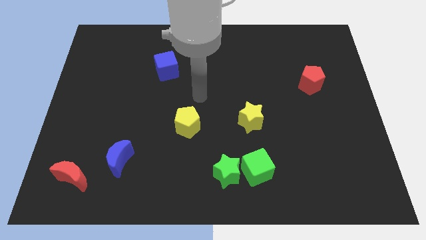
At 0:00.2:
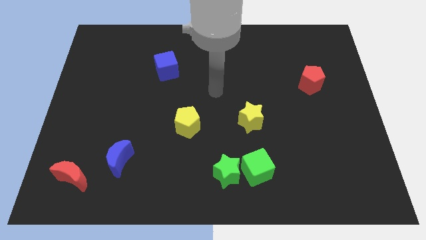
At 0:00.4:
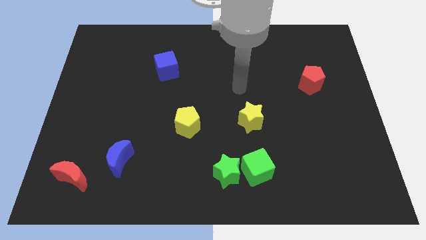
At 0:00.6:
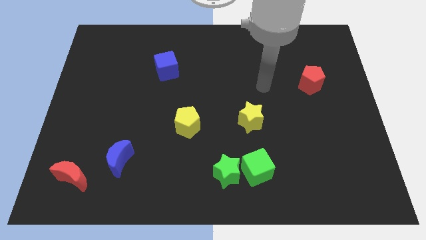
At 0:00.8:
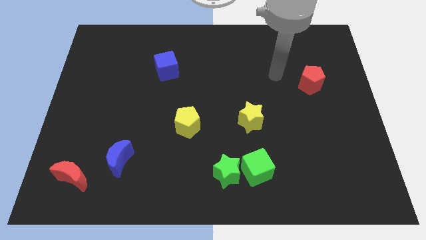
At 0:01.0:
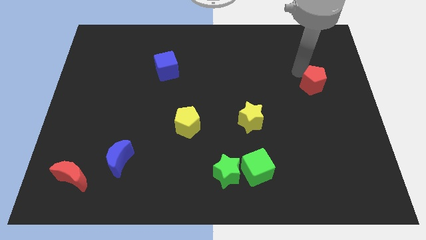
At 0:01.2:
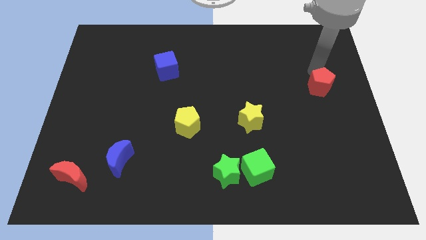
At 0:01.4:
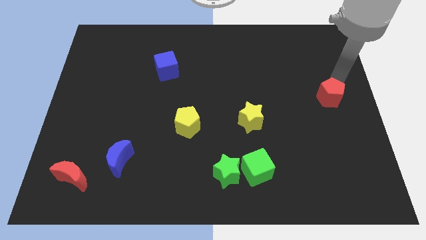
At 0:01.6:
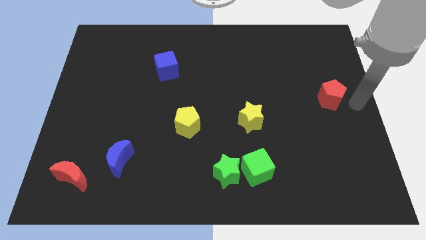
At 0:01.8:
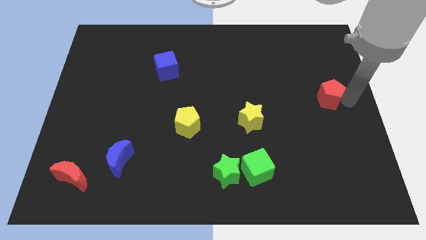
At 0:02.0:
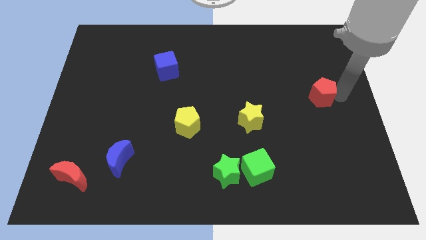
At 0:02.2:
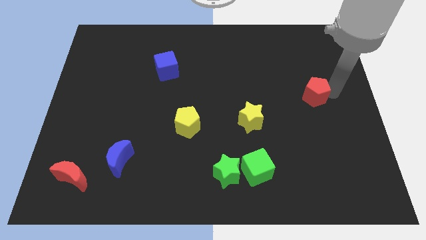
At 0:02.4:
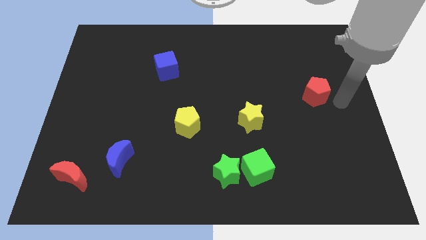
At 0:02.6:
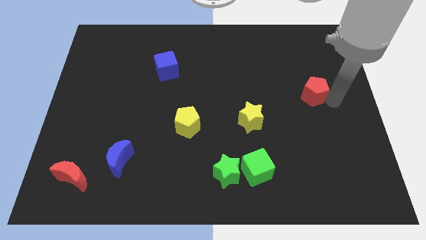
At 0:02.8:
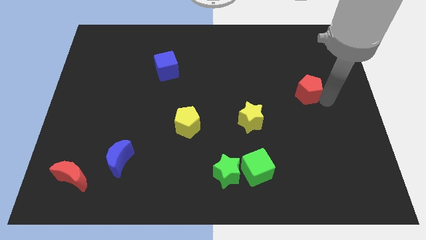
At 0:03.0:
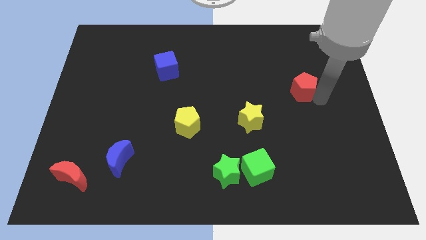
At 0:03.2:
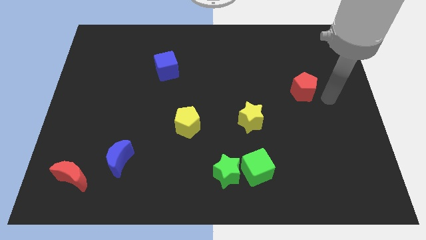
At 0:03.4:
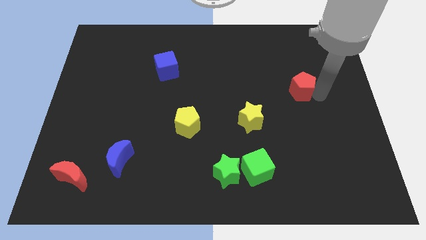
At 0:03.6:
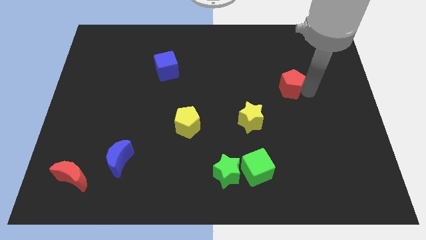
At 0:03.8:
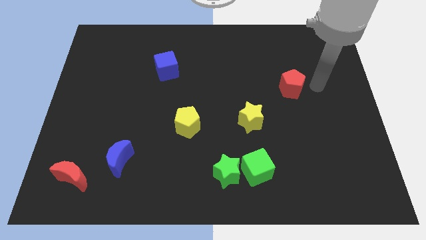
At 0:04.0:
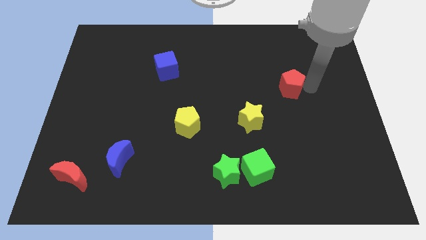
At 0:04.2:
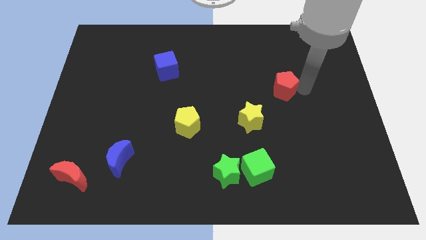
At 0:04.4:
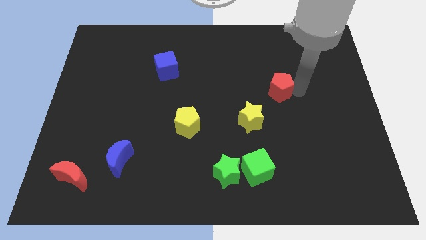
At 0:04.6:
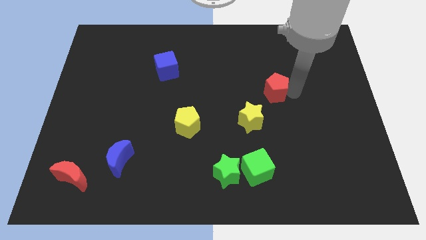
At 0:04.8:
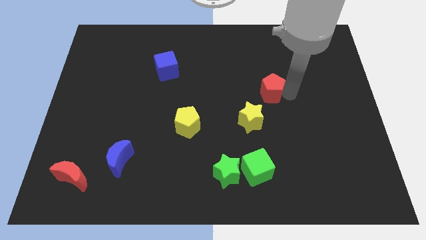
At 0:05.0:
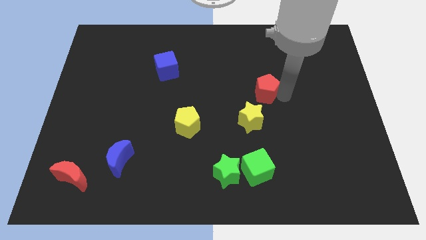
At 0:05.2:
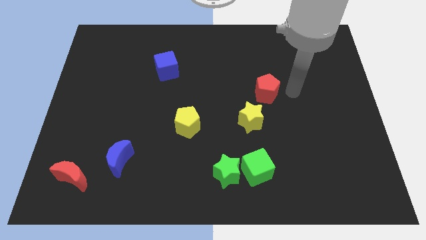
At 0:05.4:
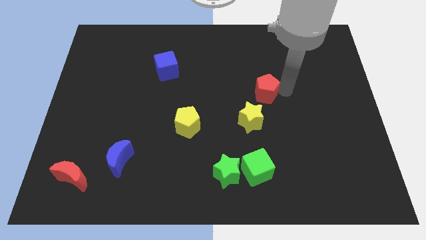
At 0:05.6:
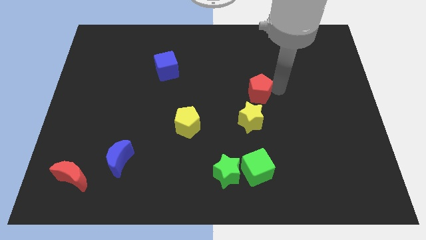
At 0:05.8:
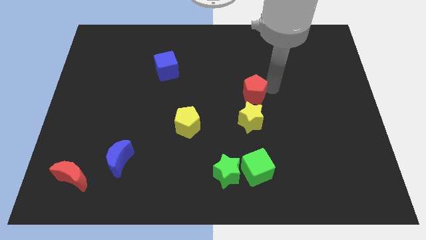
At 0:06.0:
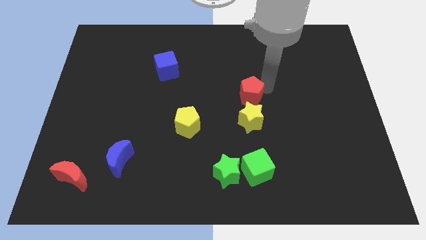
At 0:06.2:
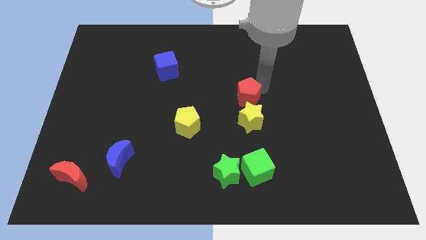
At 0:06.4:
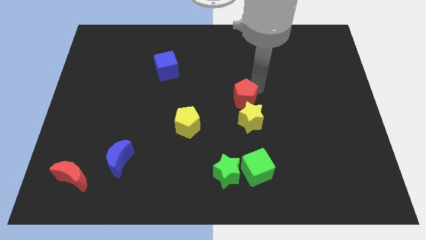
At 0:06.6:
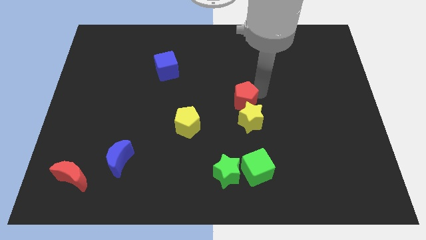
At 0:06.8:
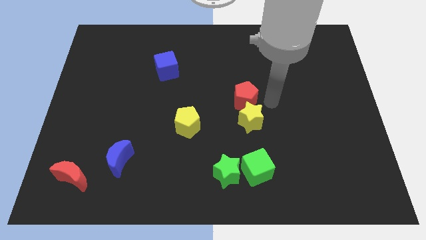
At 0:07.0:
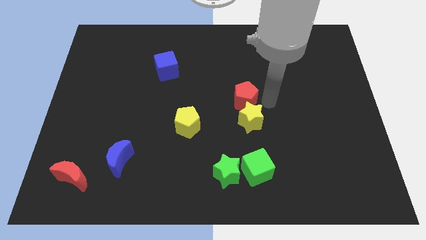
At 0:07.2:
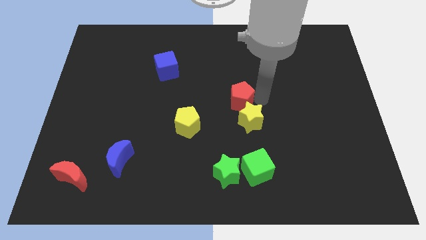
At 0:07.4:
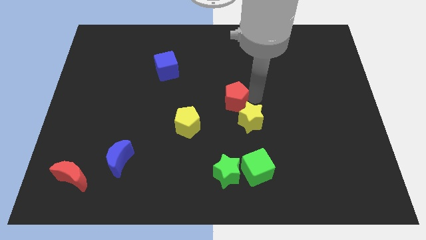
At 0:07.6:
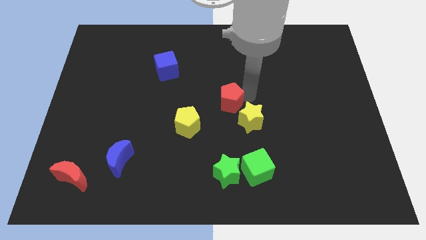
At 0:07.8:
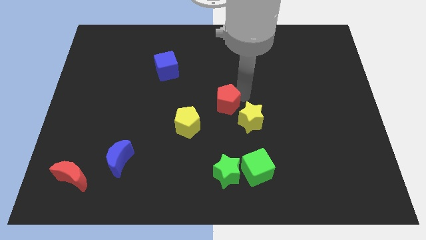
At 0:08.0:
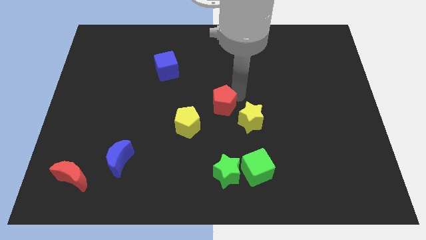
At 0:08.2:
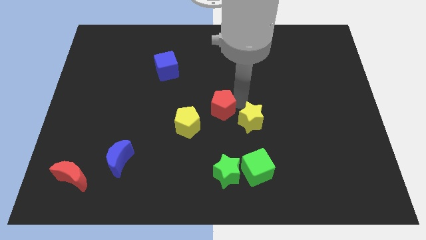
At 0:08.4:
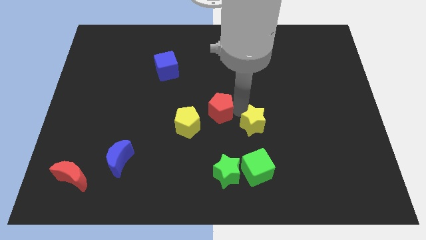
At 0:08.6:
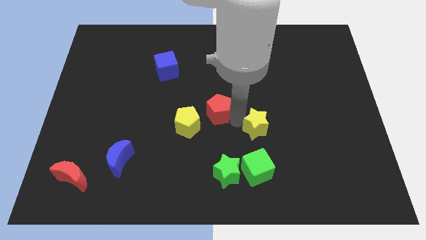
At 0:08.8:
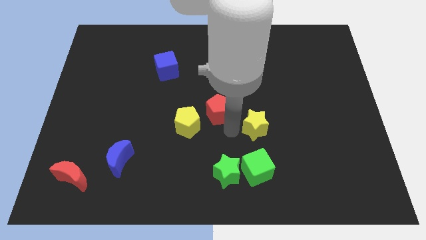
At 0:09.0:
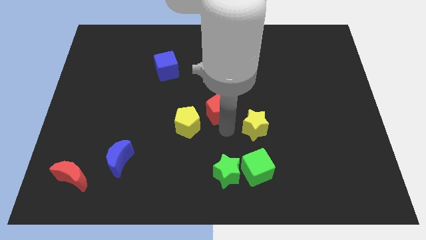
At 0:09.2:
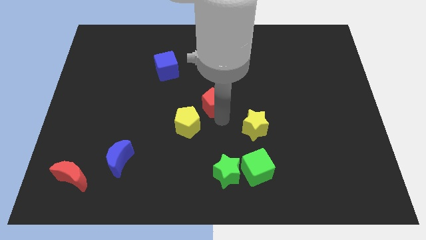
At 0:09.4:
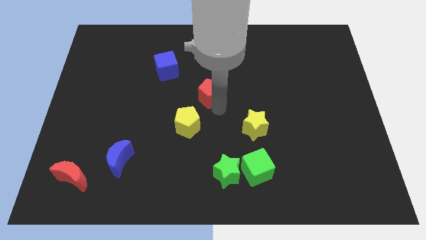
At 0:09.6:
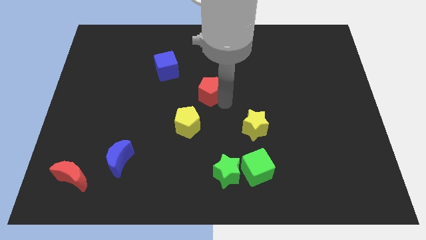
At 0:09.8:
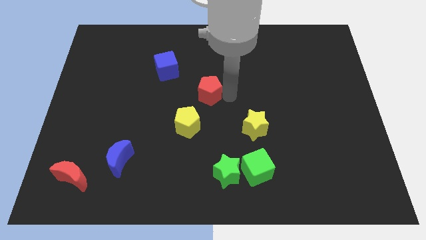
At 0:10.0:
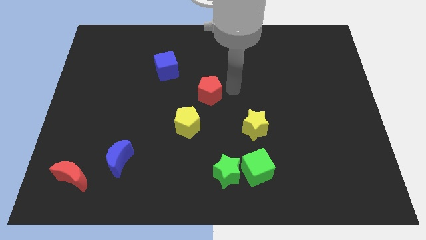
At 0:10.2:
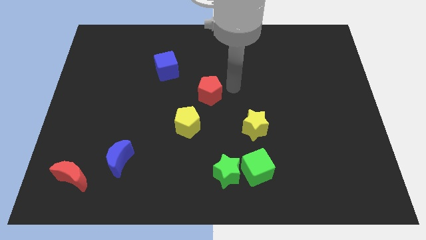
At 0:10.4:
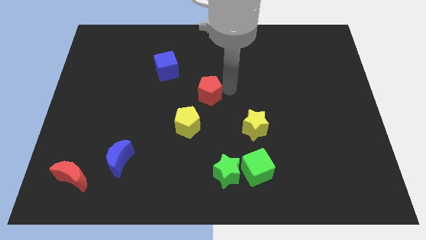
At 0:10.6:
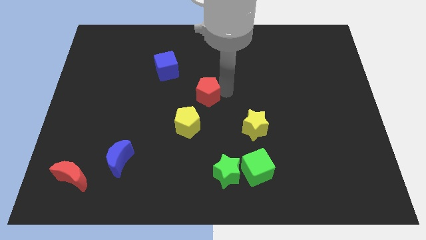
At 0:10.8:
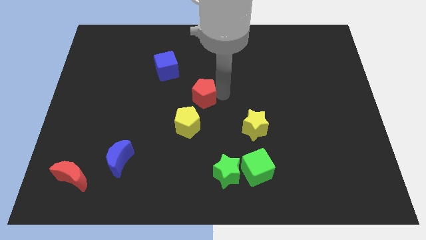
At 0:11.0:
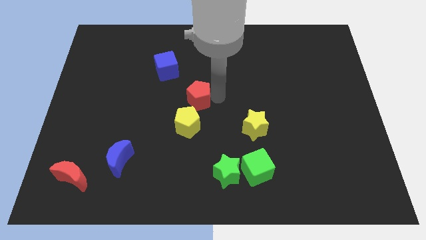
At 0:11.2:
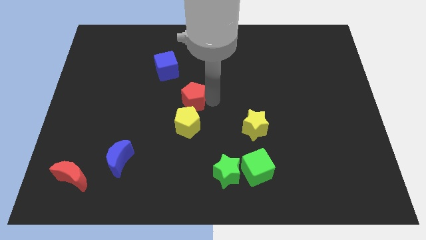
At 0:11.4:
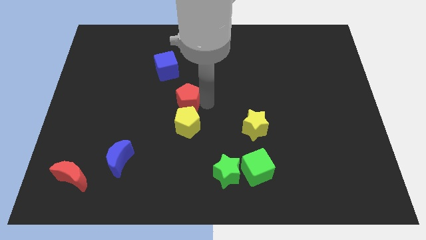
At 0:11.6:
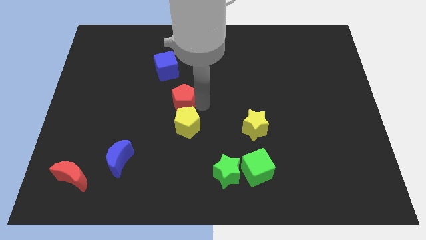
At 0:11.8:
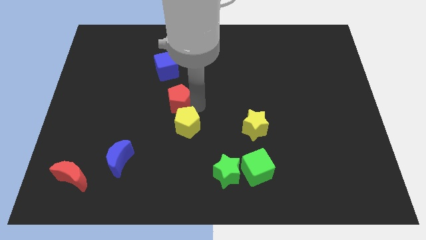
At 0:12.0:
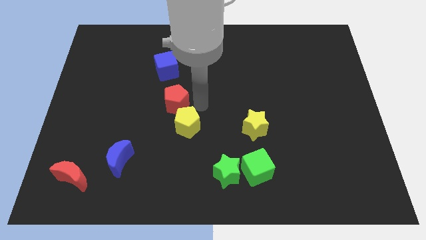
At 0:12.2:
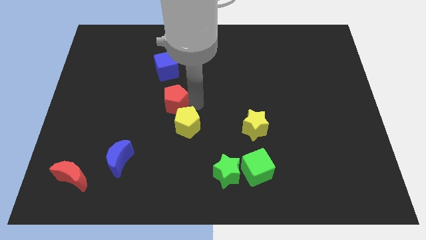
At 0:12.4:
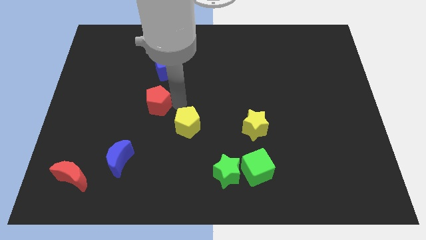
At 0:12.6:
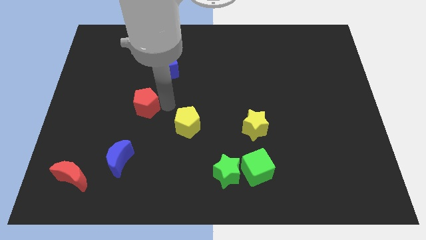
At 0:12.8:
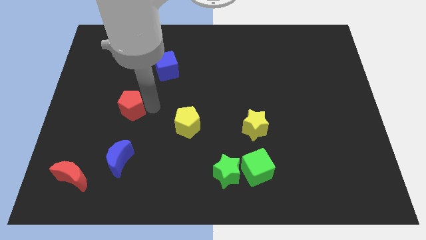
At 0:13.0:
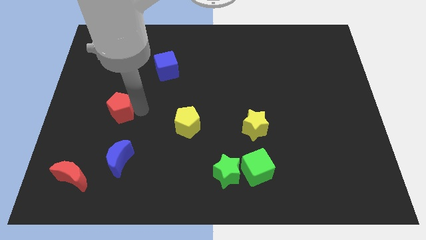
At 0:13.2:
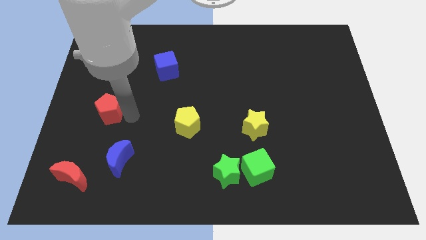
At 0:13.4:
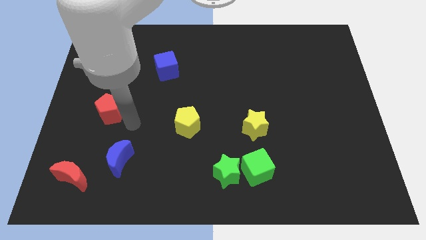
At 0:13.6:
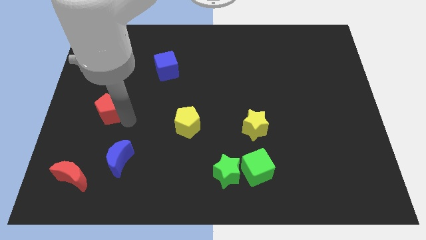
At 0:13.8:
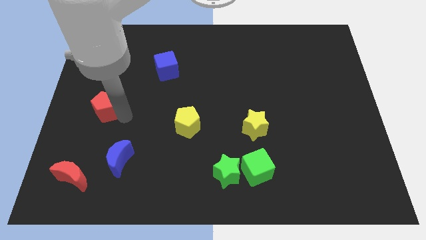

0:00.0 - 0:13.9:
slide the red pentagon to the center left
